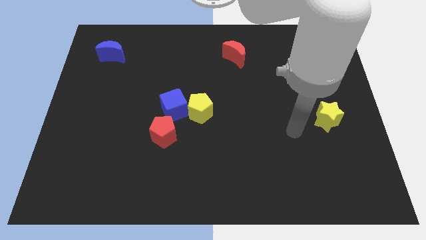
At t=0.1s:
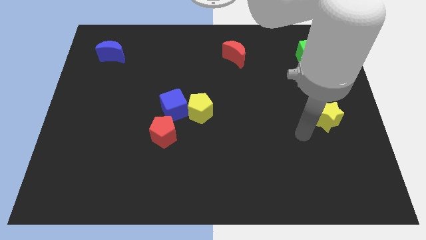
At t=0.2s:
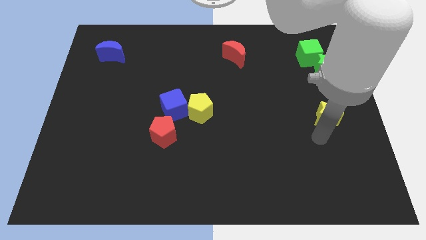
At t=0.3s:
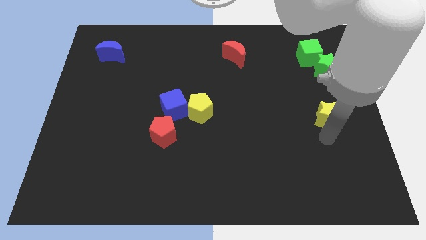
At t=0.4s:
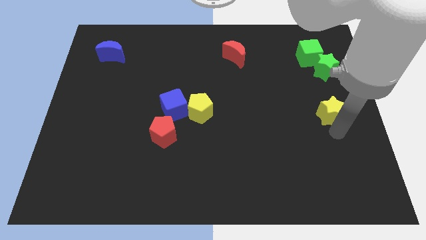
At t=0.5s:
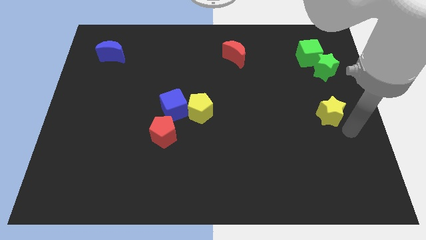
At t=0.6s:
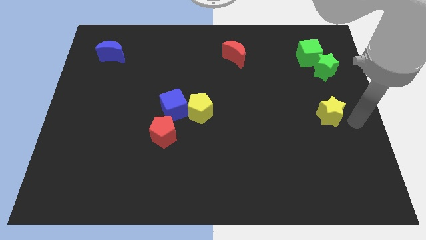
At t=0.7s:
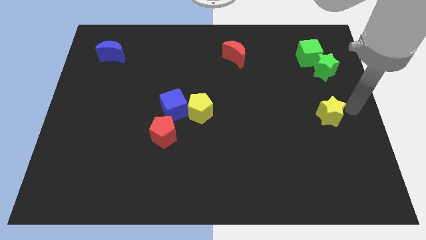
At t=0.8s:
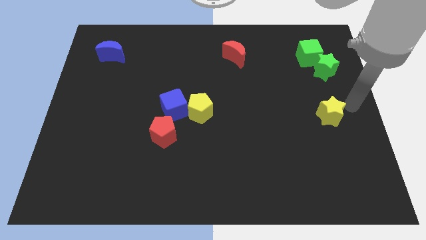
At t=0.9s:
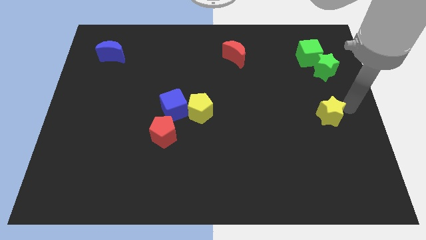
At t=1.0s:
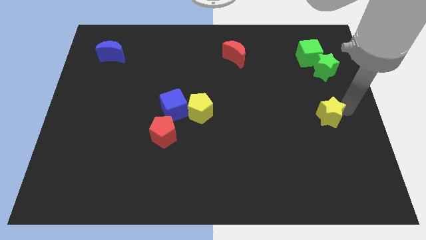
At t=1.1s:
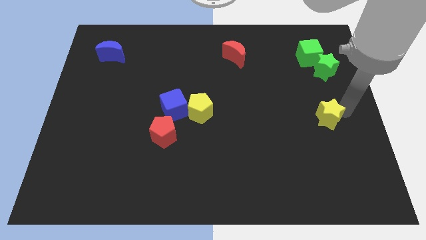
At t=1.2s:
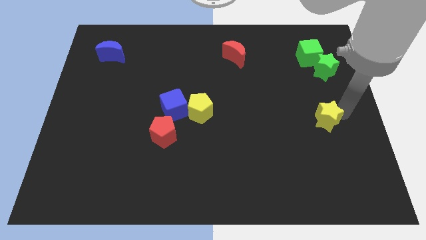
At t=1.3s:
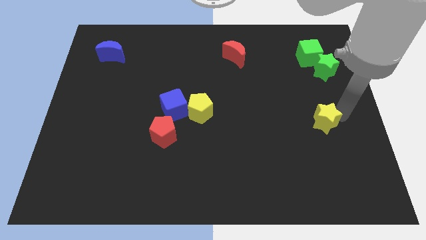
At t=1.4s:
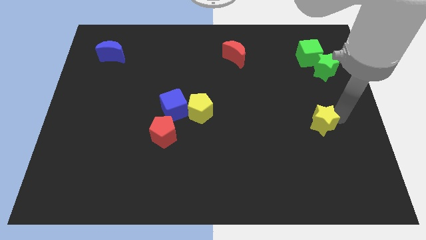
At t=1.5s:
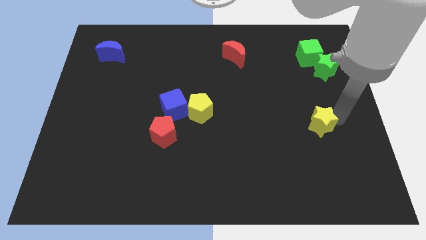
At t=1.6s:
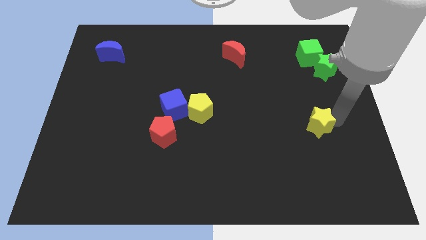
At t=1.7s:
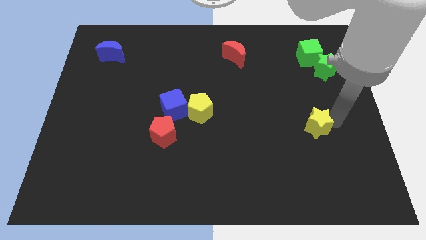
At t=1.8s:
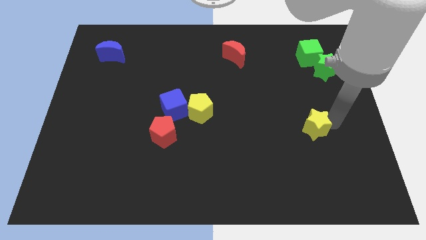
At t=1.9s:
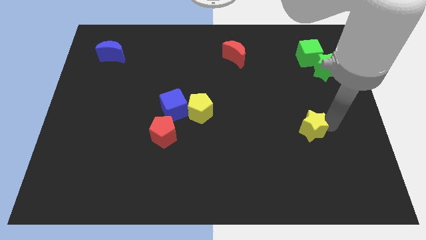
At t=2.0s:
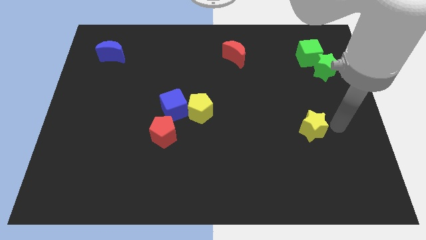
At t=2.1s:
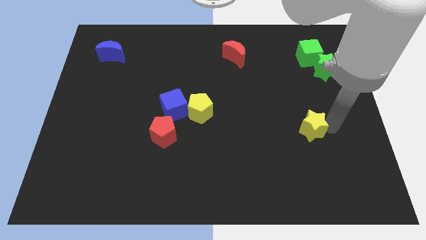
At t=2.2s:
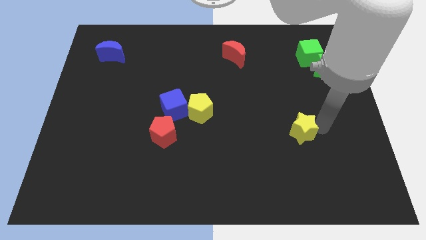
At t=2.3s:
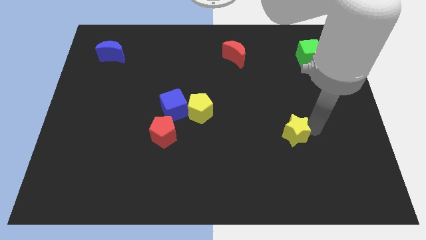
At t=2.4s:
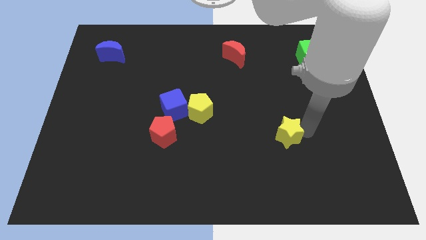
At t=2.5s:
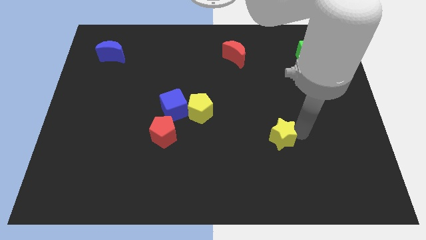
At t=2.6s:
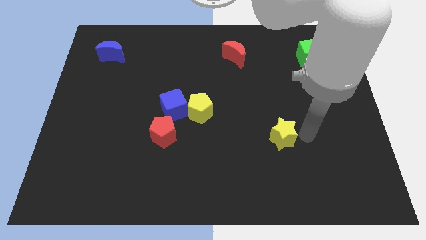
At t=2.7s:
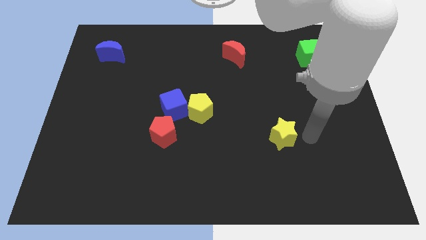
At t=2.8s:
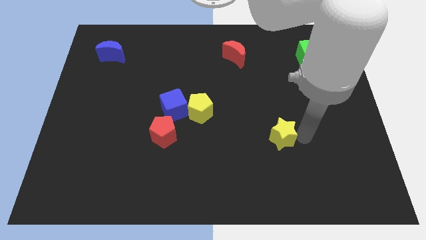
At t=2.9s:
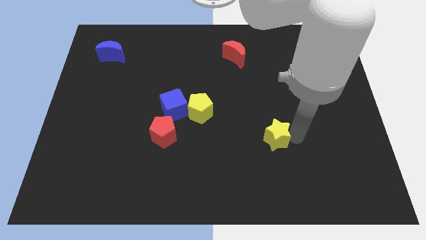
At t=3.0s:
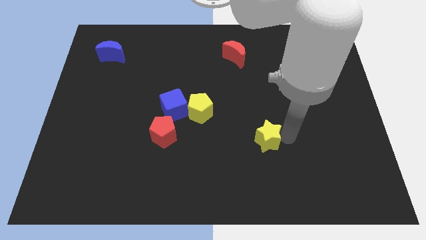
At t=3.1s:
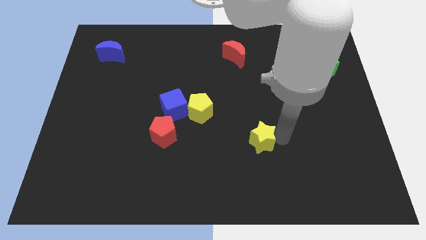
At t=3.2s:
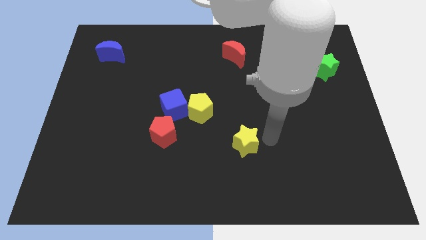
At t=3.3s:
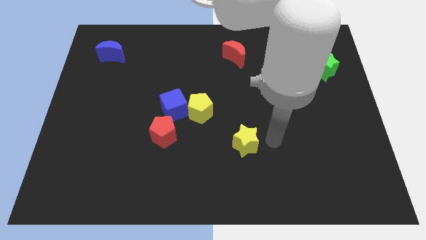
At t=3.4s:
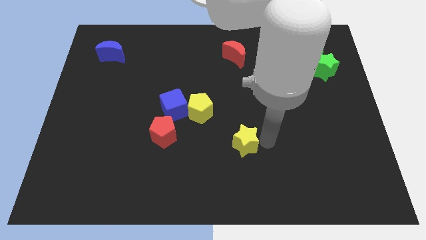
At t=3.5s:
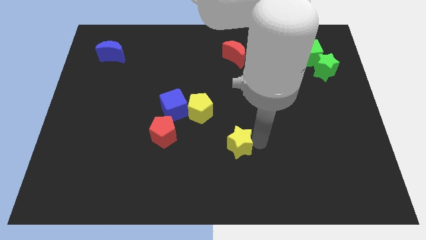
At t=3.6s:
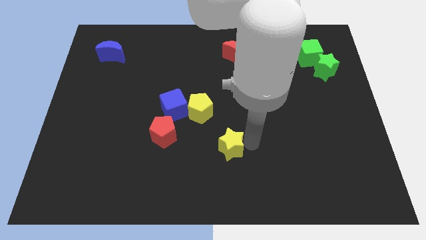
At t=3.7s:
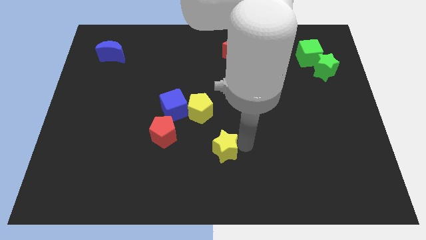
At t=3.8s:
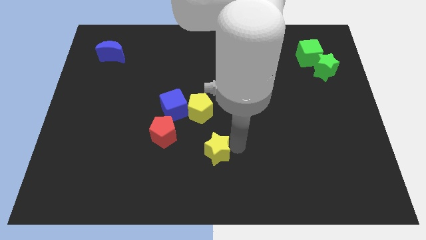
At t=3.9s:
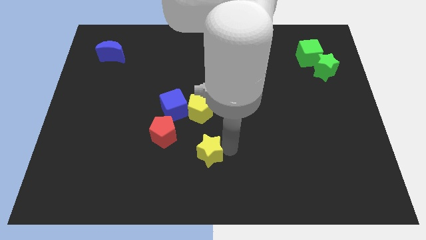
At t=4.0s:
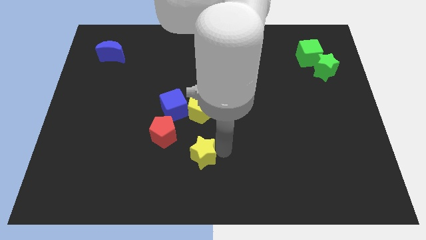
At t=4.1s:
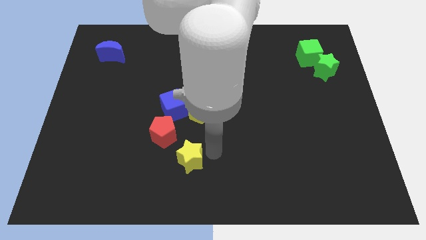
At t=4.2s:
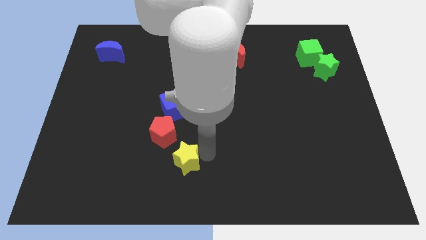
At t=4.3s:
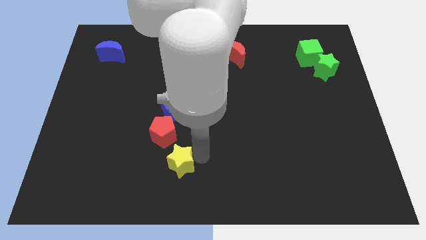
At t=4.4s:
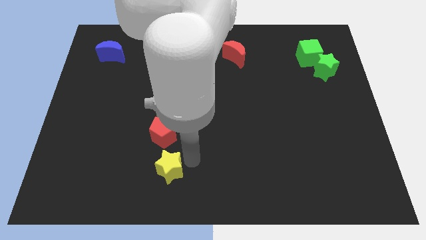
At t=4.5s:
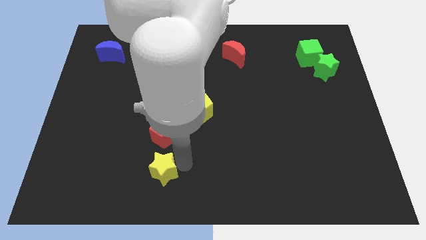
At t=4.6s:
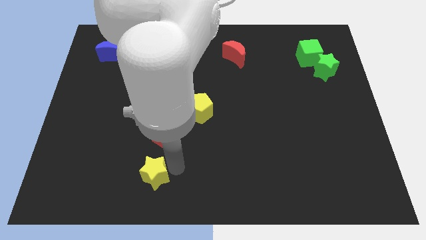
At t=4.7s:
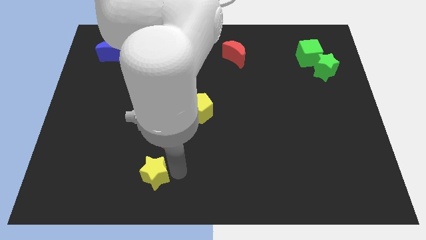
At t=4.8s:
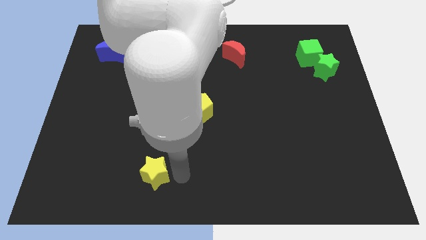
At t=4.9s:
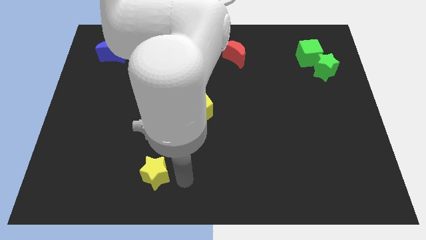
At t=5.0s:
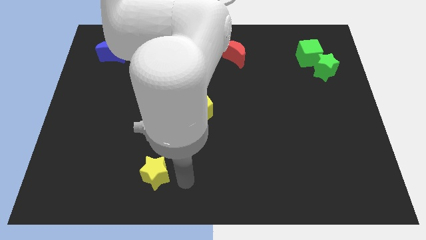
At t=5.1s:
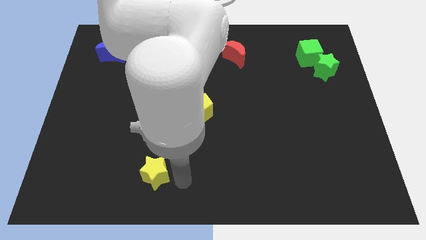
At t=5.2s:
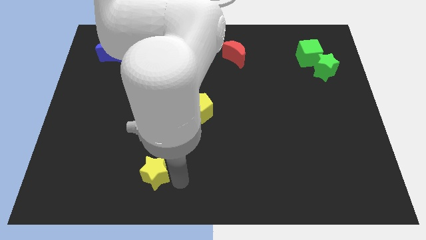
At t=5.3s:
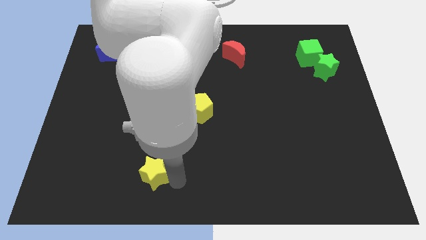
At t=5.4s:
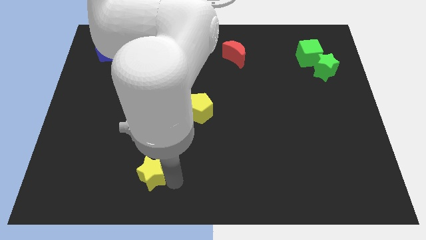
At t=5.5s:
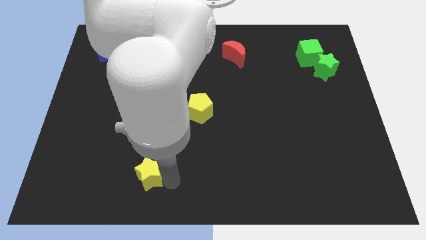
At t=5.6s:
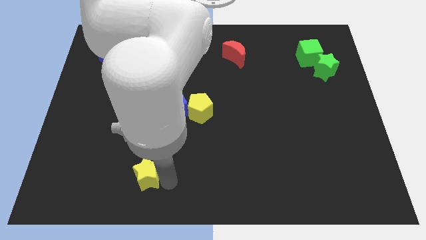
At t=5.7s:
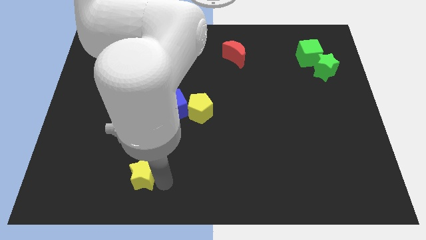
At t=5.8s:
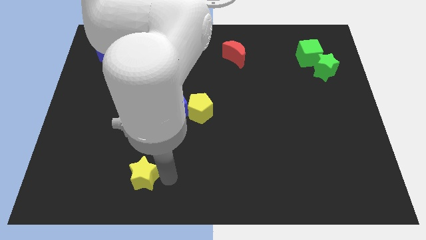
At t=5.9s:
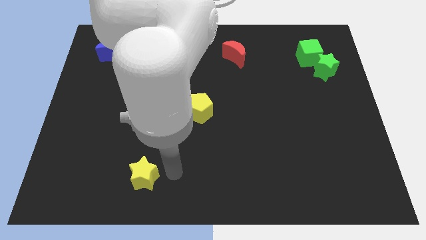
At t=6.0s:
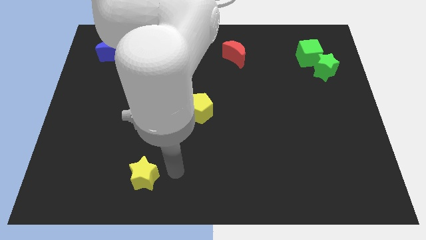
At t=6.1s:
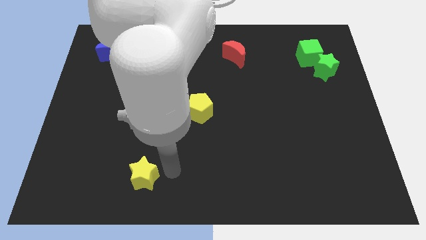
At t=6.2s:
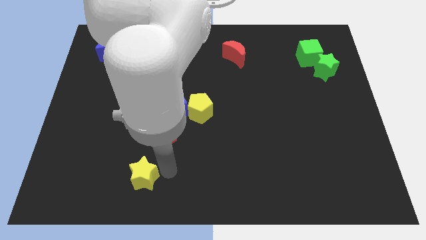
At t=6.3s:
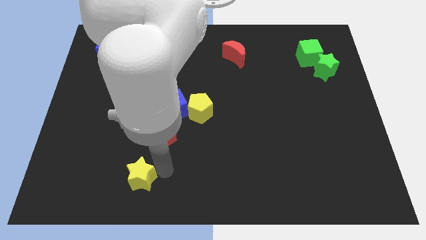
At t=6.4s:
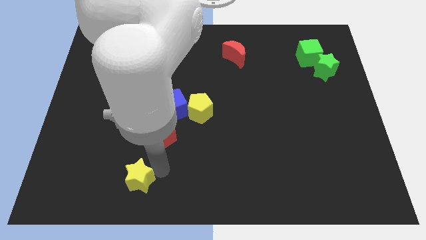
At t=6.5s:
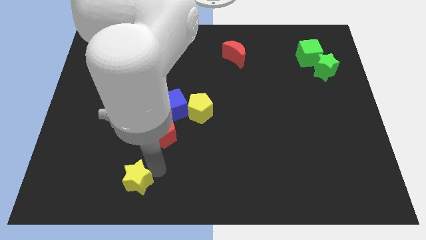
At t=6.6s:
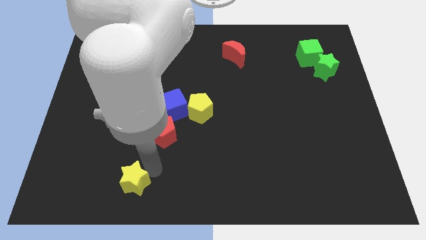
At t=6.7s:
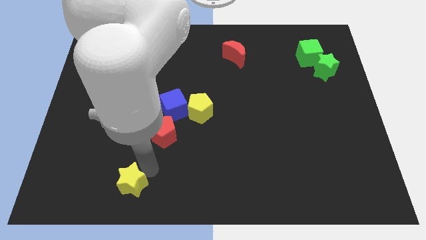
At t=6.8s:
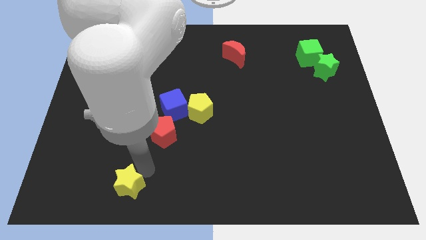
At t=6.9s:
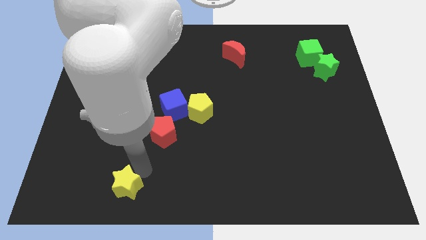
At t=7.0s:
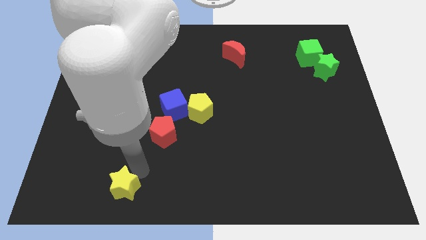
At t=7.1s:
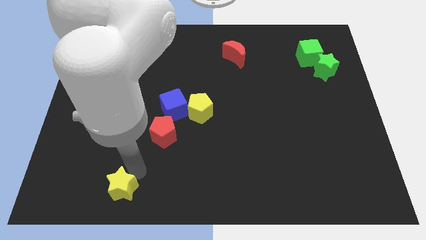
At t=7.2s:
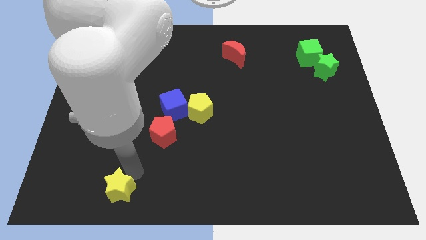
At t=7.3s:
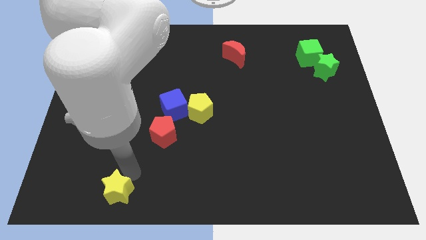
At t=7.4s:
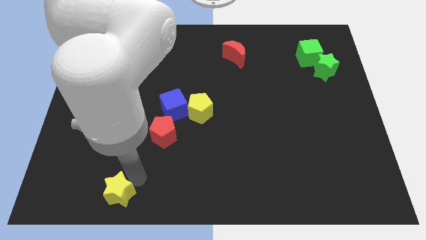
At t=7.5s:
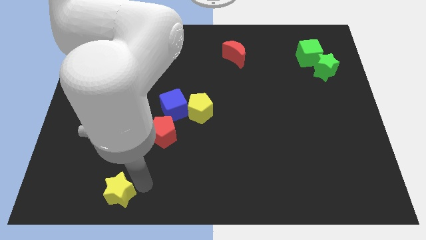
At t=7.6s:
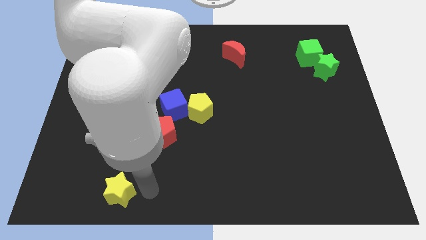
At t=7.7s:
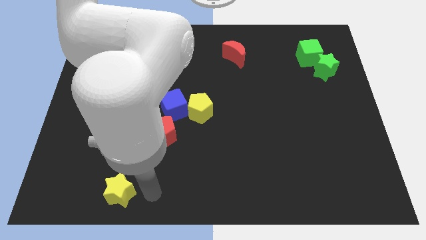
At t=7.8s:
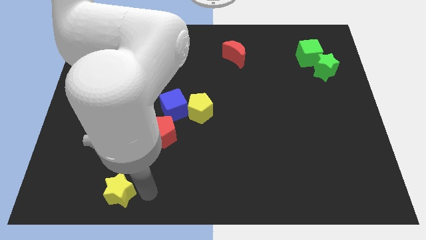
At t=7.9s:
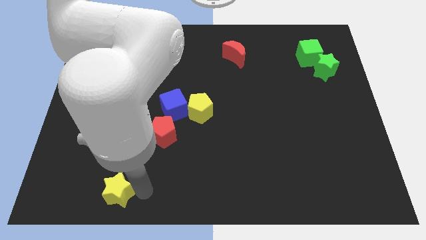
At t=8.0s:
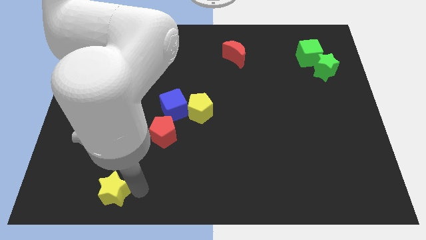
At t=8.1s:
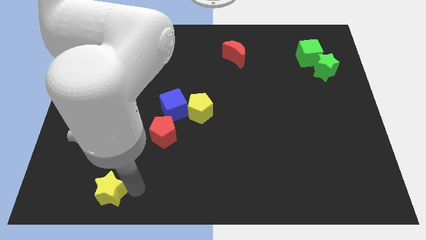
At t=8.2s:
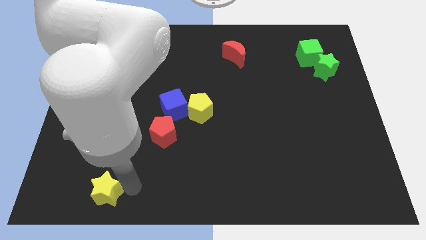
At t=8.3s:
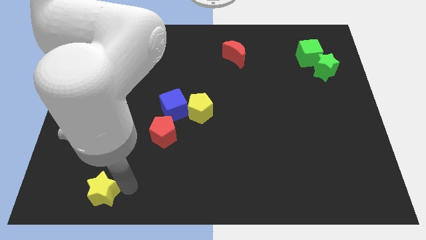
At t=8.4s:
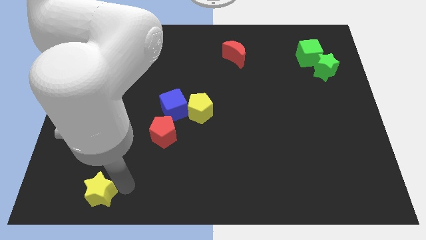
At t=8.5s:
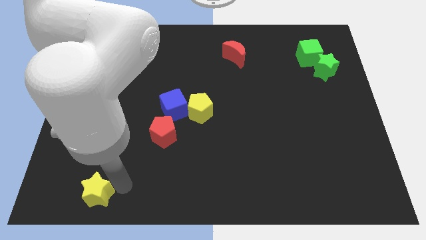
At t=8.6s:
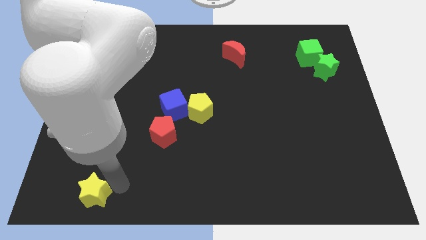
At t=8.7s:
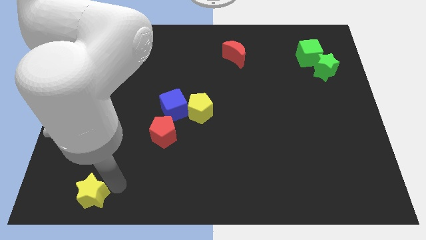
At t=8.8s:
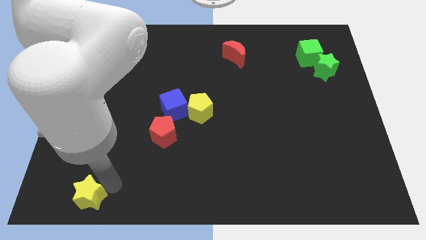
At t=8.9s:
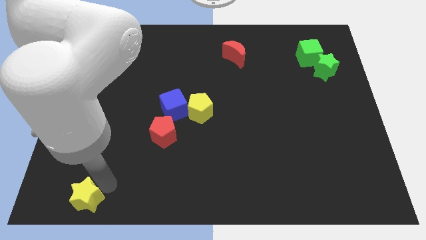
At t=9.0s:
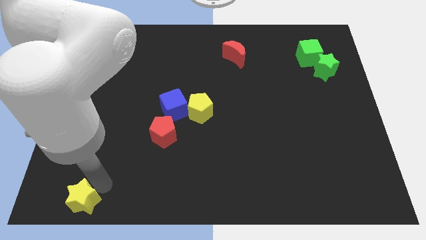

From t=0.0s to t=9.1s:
push the yellow star to the bottom left of the board
